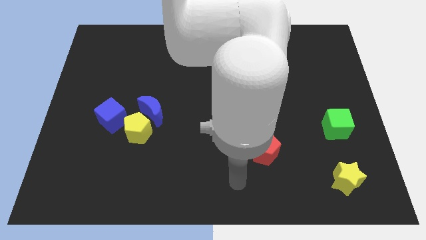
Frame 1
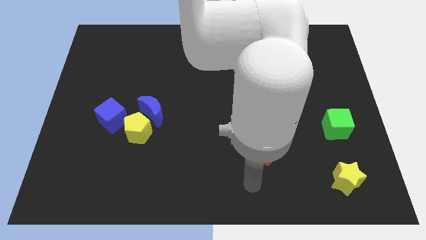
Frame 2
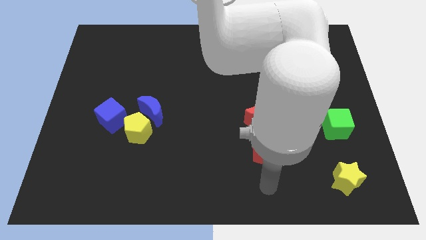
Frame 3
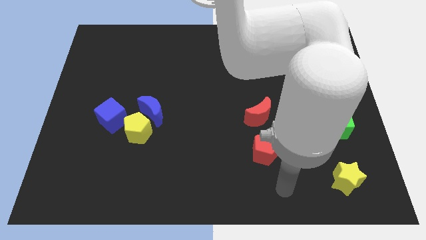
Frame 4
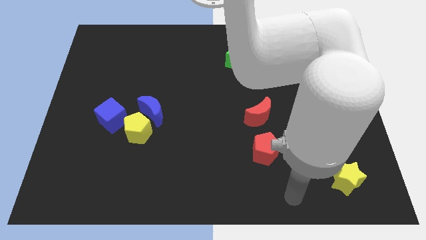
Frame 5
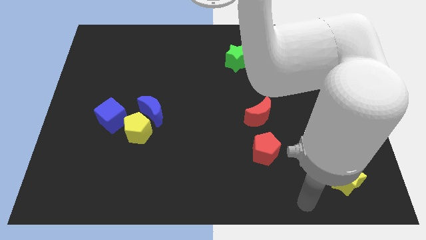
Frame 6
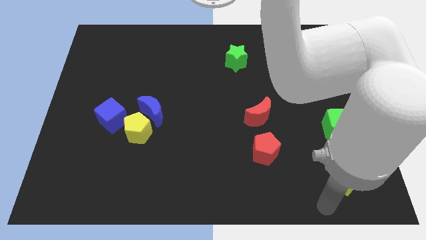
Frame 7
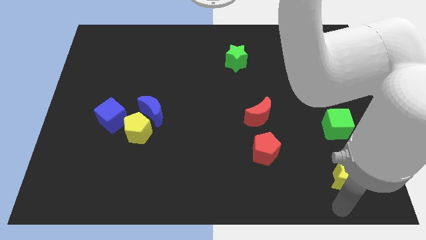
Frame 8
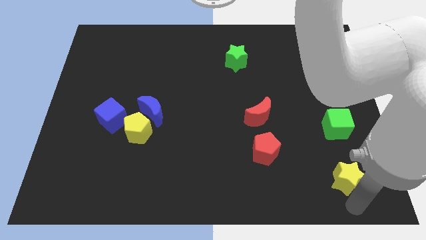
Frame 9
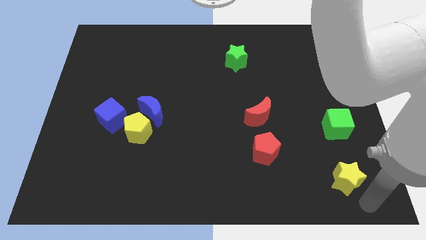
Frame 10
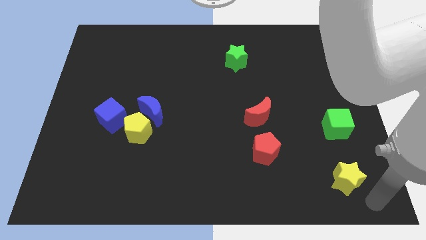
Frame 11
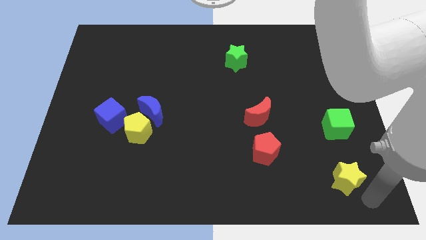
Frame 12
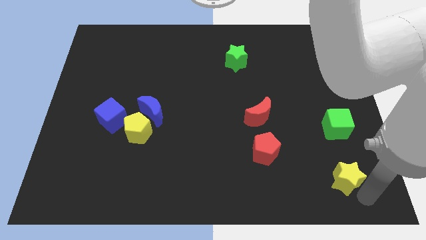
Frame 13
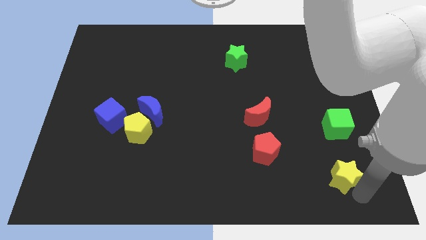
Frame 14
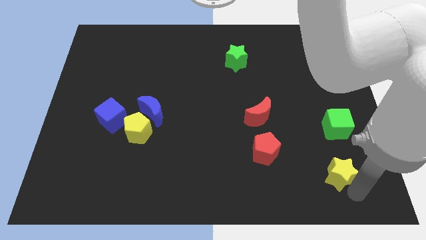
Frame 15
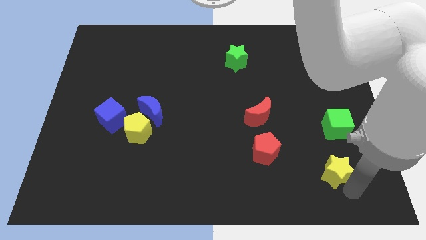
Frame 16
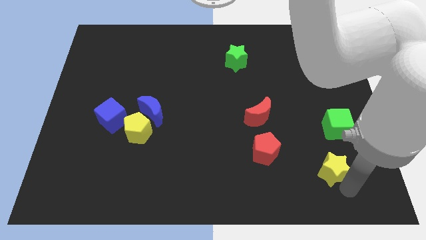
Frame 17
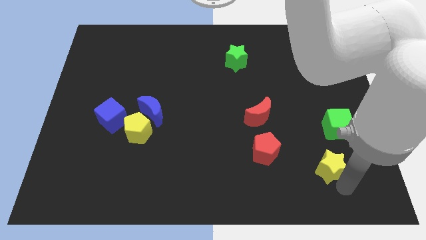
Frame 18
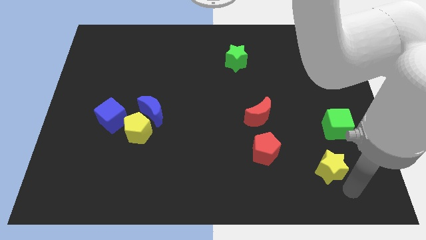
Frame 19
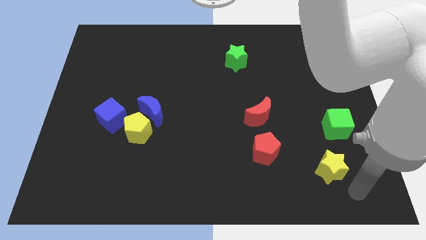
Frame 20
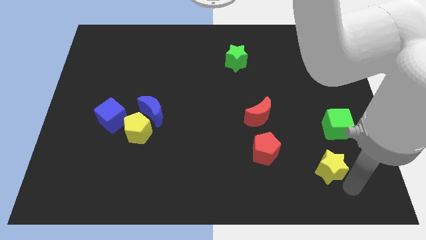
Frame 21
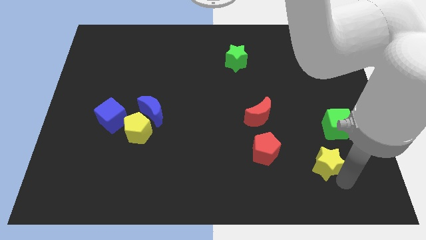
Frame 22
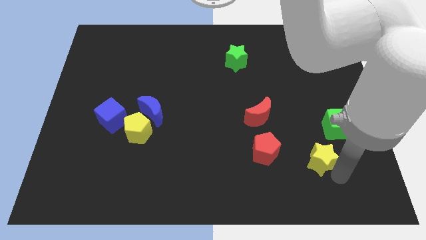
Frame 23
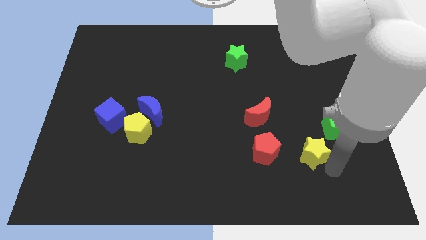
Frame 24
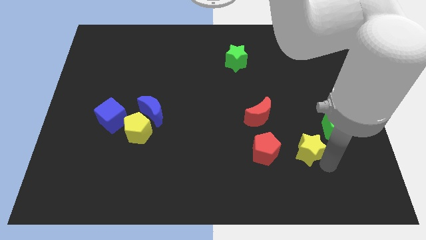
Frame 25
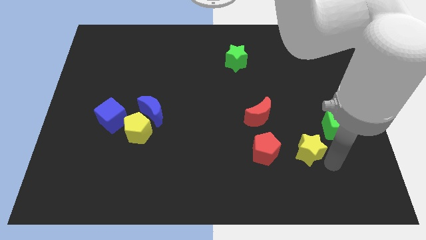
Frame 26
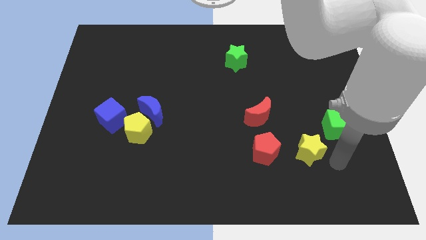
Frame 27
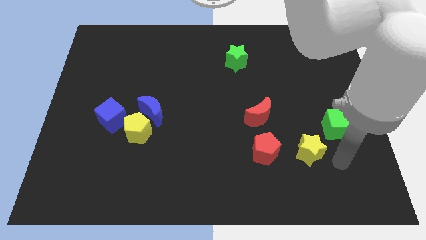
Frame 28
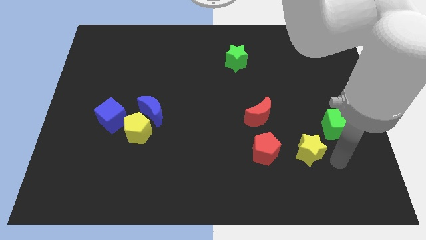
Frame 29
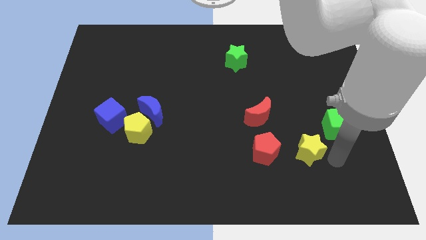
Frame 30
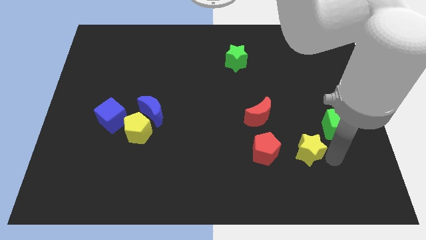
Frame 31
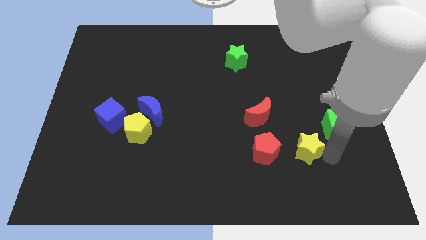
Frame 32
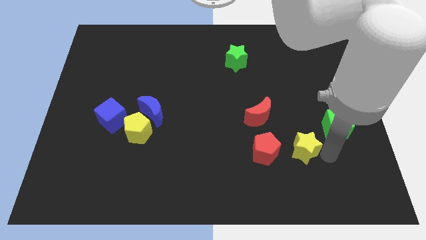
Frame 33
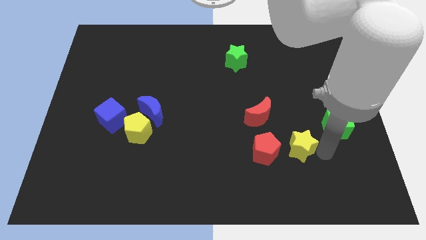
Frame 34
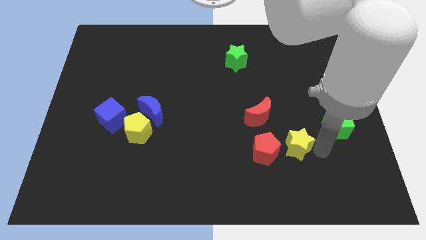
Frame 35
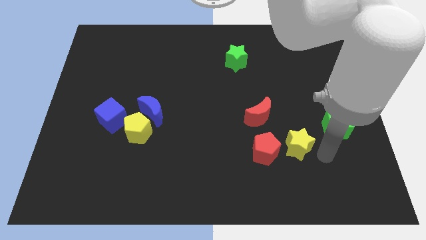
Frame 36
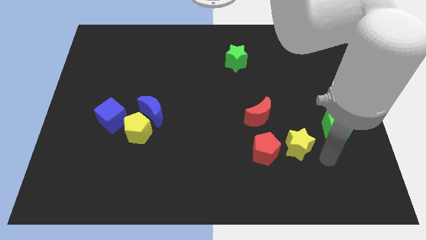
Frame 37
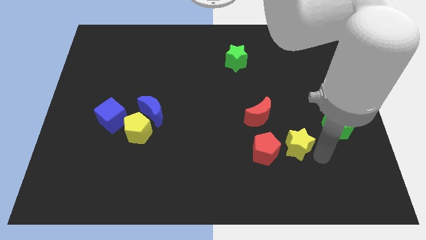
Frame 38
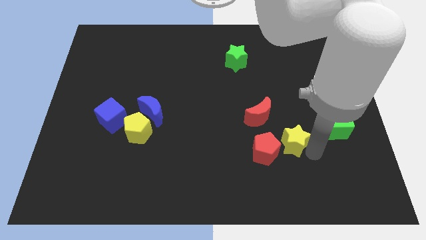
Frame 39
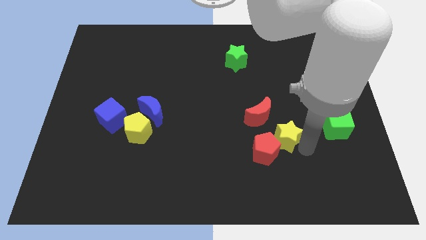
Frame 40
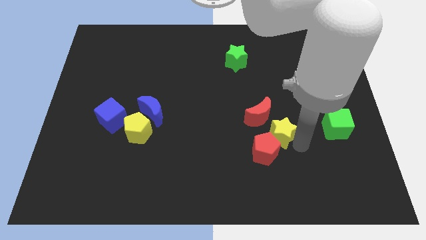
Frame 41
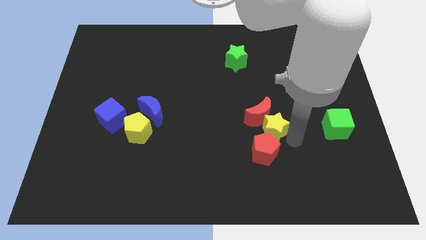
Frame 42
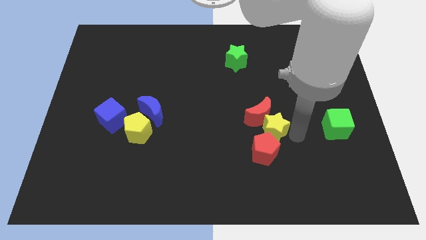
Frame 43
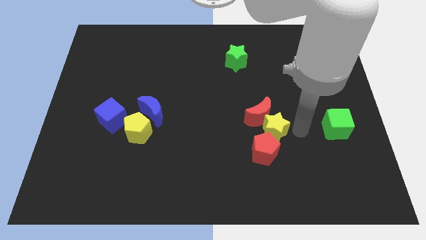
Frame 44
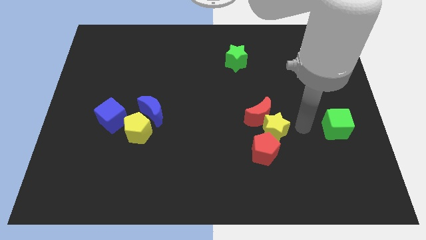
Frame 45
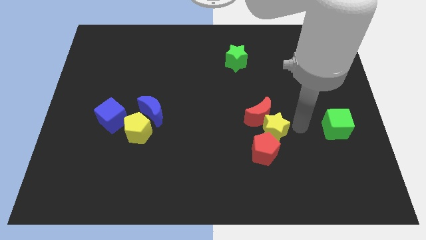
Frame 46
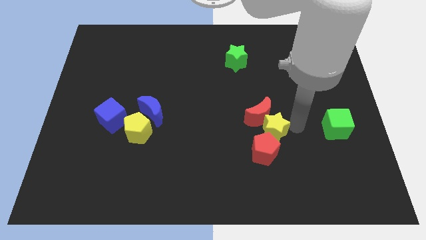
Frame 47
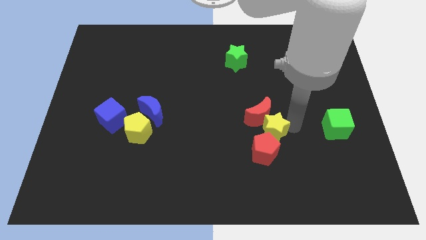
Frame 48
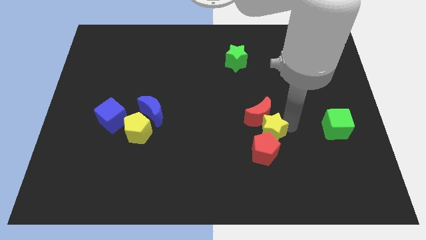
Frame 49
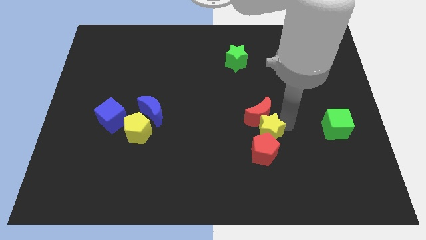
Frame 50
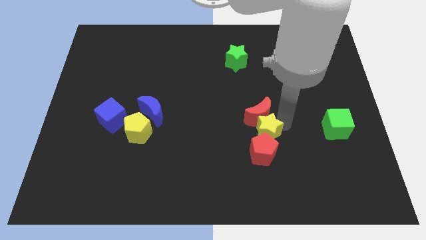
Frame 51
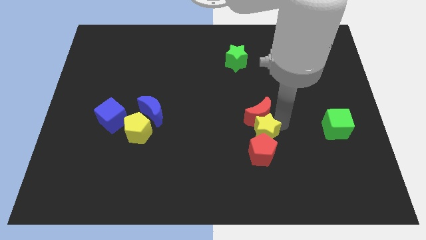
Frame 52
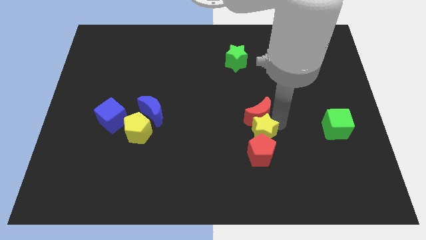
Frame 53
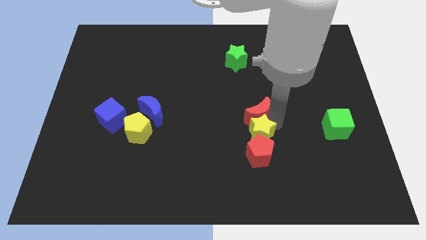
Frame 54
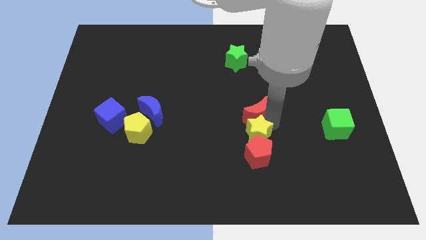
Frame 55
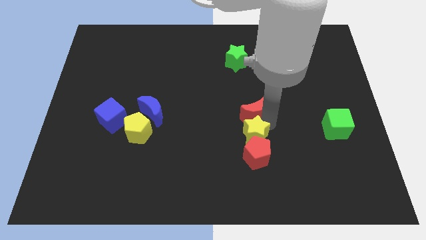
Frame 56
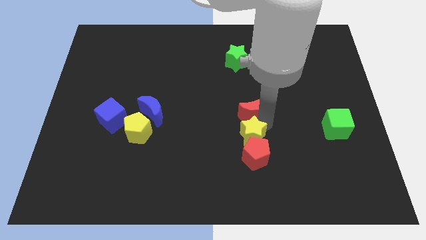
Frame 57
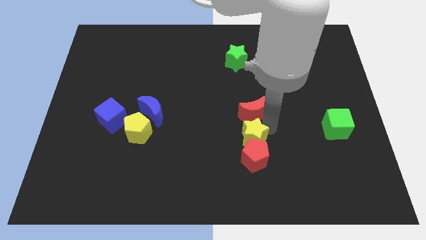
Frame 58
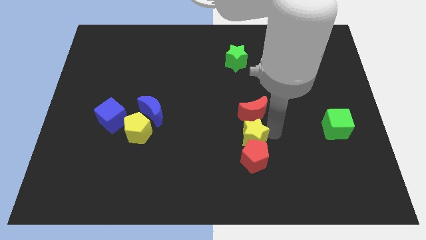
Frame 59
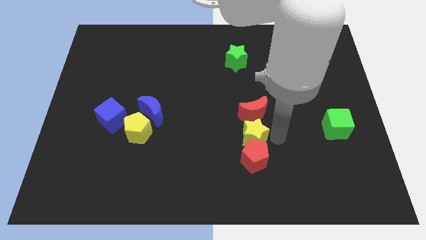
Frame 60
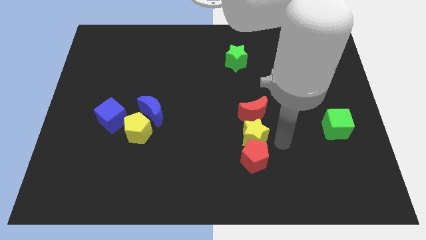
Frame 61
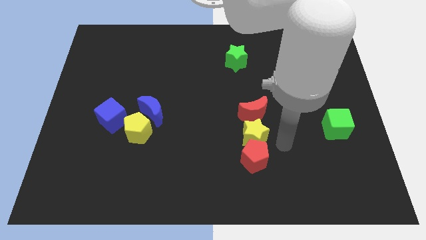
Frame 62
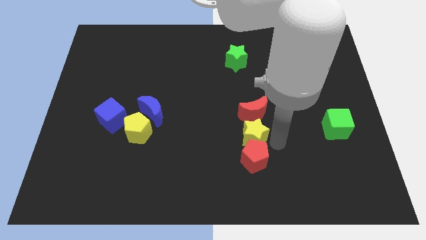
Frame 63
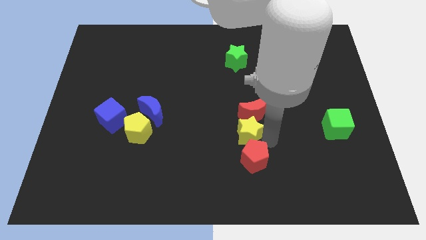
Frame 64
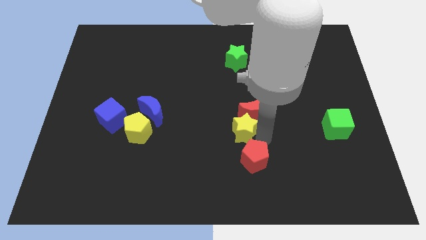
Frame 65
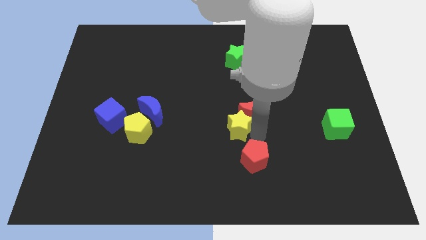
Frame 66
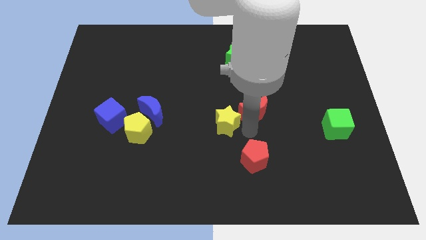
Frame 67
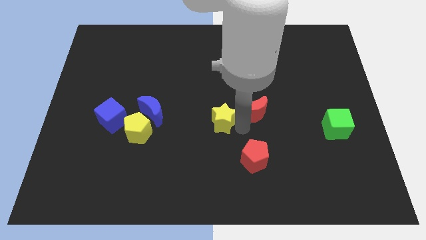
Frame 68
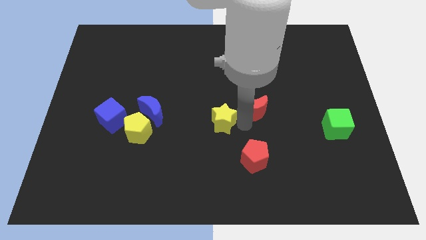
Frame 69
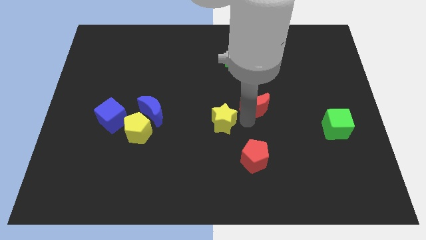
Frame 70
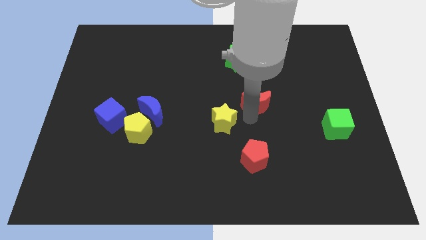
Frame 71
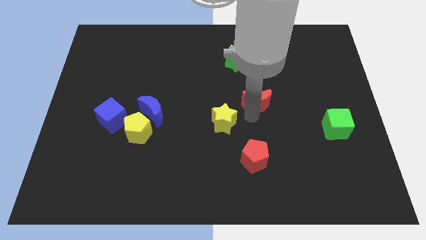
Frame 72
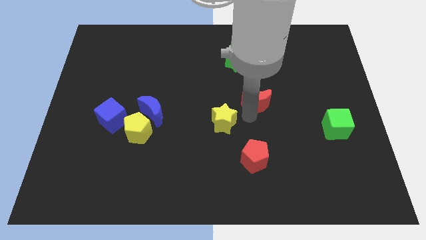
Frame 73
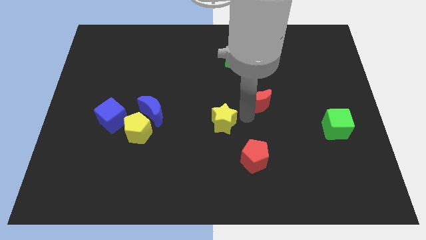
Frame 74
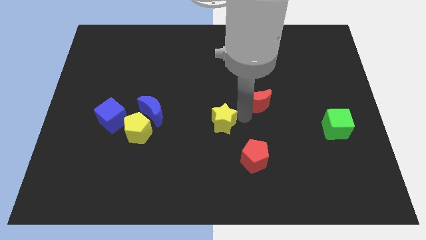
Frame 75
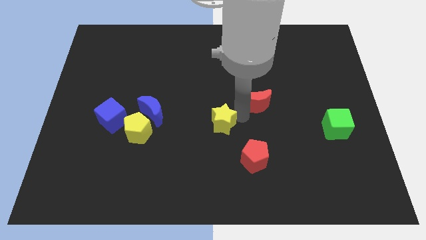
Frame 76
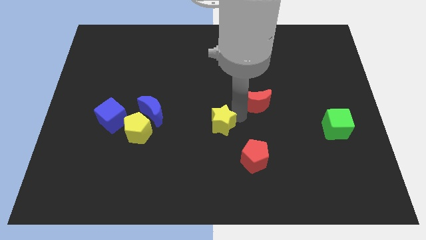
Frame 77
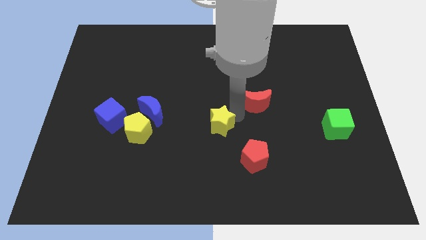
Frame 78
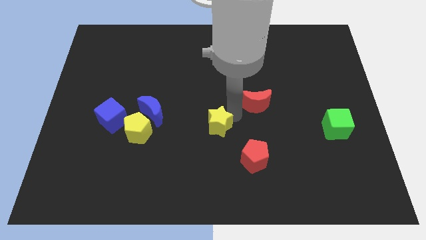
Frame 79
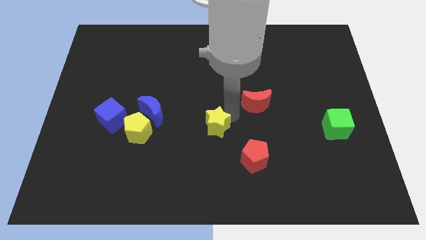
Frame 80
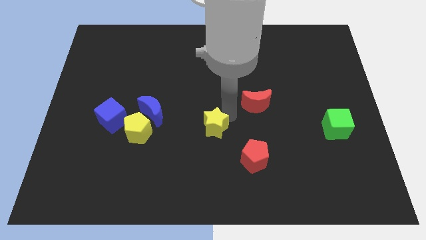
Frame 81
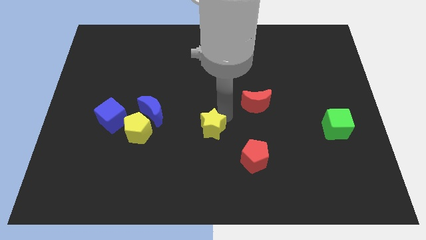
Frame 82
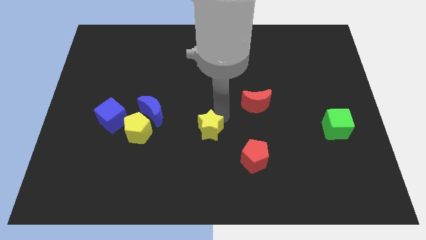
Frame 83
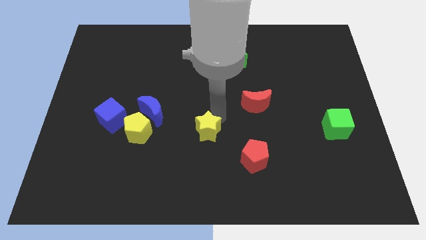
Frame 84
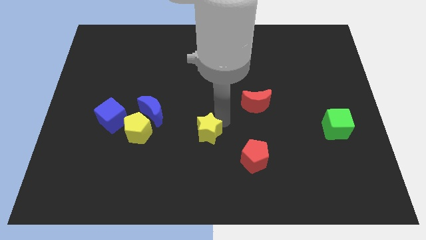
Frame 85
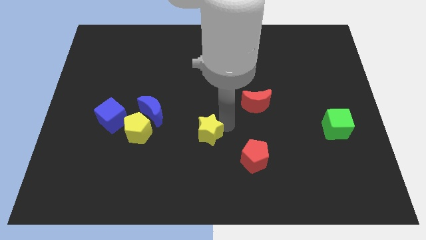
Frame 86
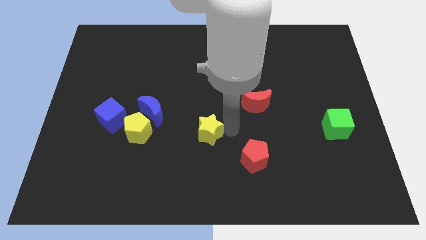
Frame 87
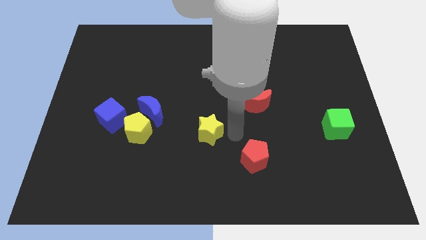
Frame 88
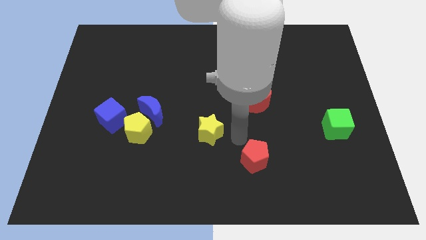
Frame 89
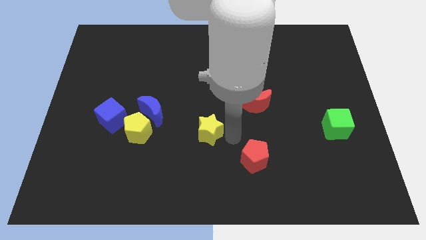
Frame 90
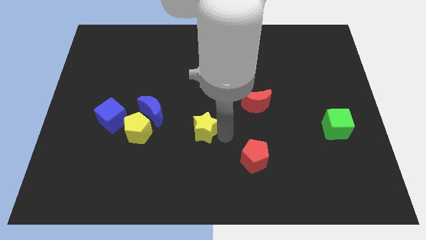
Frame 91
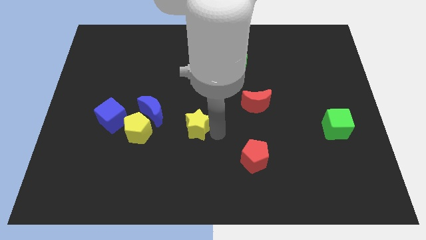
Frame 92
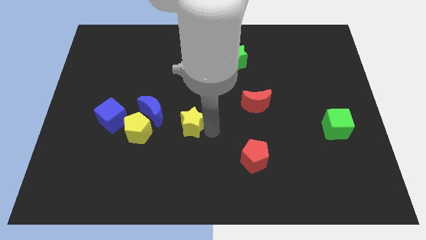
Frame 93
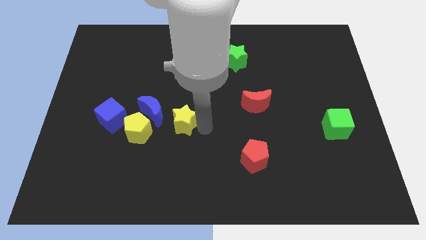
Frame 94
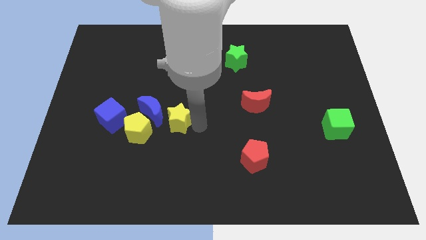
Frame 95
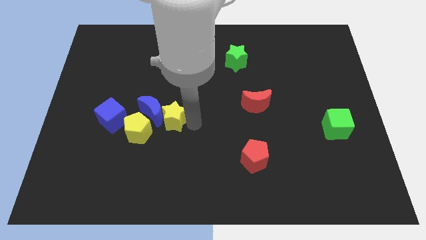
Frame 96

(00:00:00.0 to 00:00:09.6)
put the yellow star close to the blue moon
